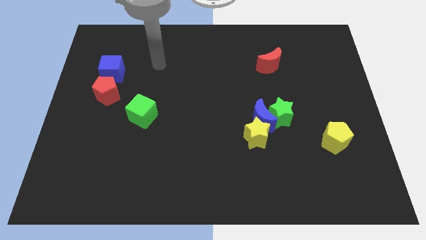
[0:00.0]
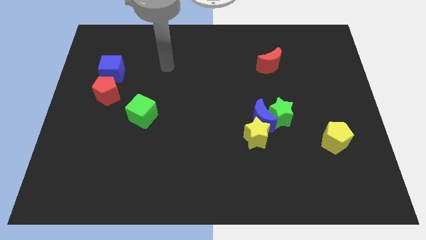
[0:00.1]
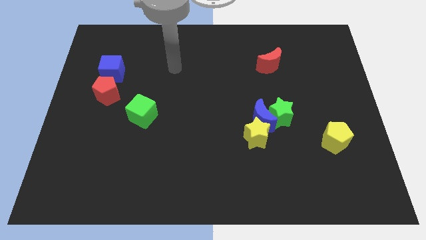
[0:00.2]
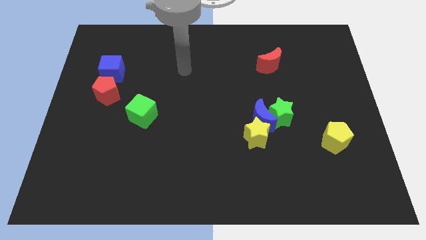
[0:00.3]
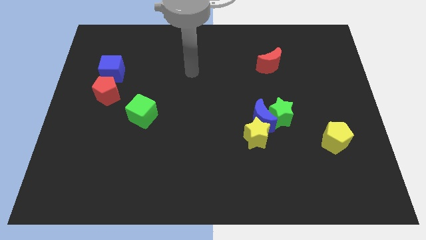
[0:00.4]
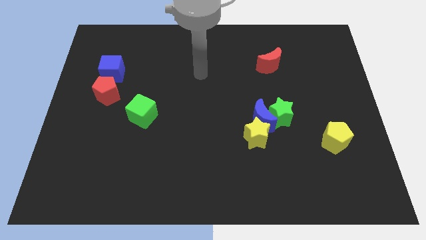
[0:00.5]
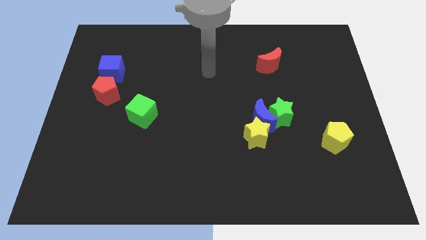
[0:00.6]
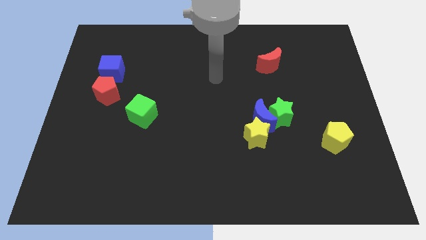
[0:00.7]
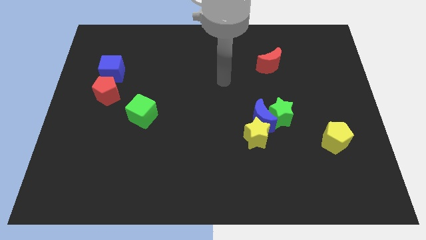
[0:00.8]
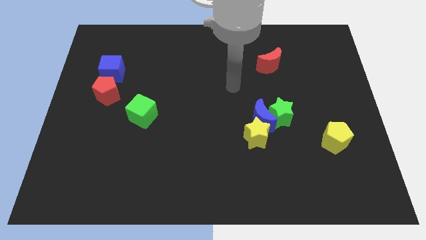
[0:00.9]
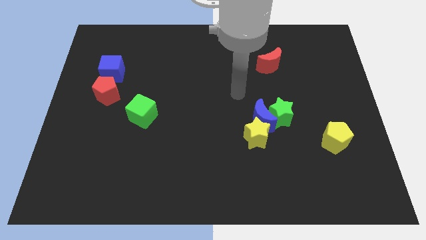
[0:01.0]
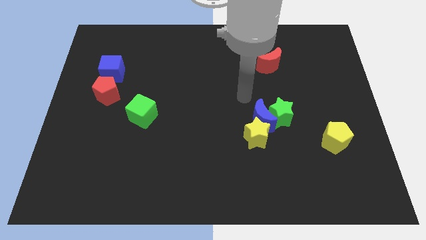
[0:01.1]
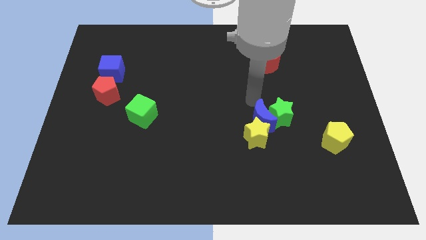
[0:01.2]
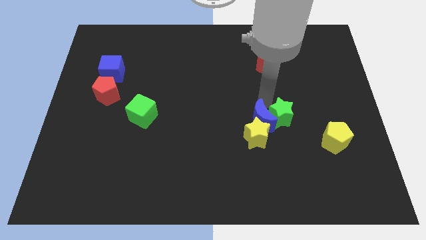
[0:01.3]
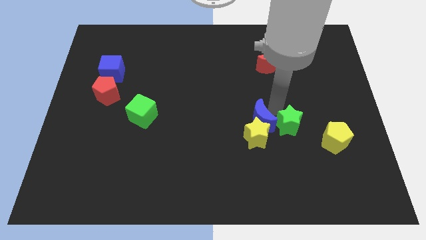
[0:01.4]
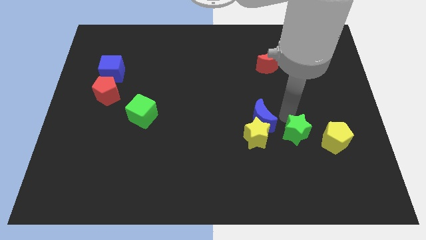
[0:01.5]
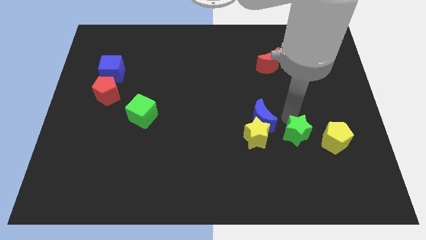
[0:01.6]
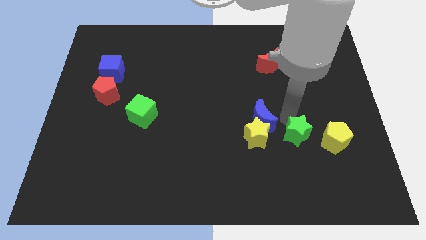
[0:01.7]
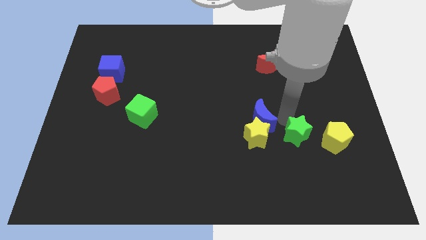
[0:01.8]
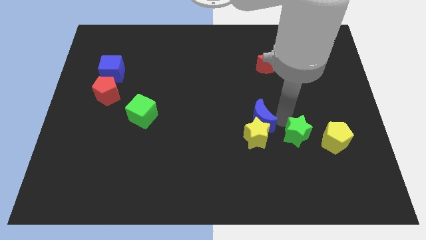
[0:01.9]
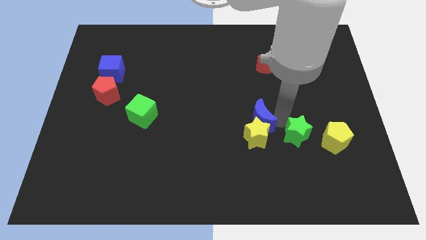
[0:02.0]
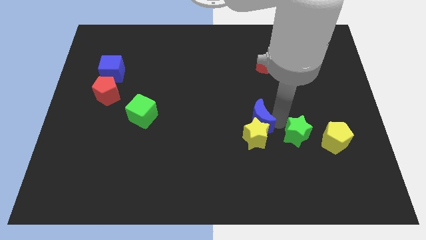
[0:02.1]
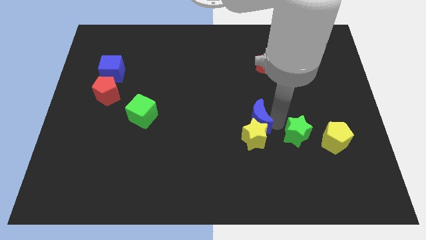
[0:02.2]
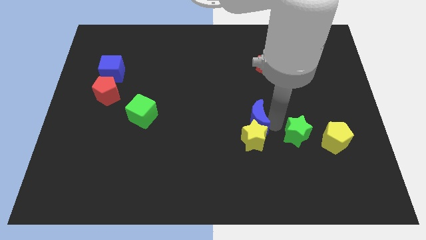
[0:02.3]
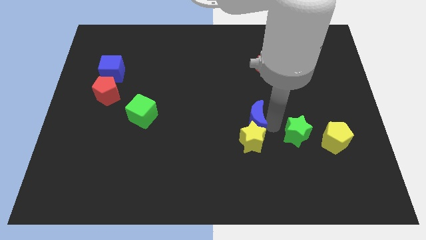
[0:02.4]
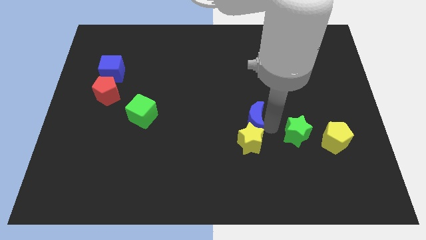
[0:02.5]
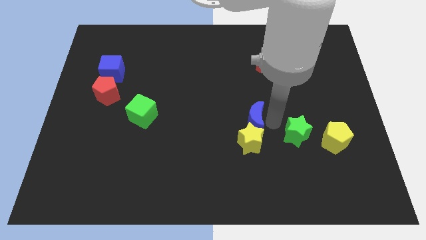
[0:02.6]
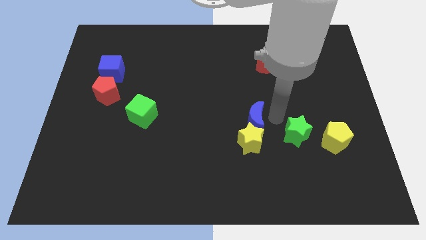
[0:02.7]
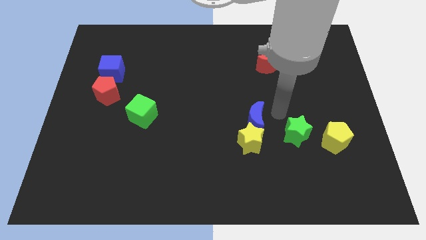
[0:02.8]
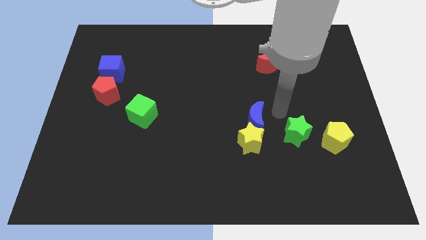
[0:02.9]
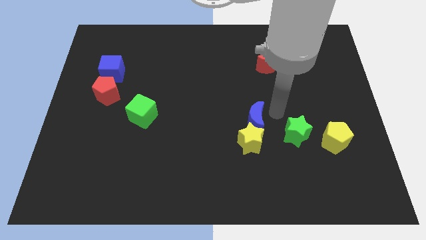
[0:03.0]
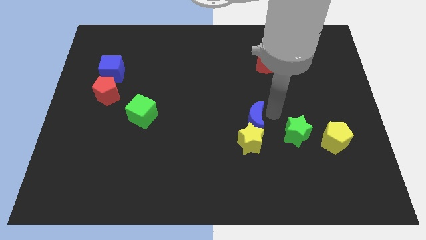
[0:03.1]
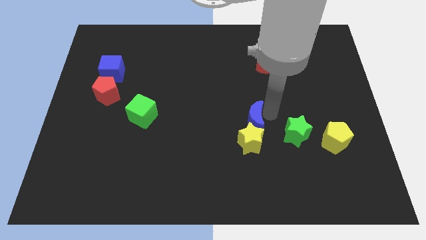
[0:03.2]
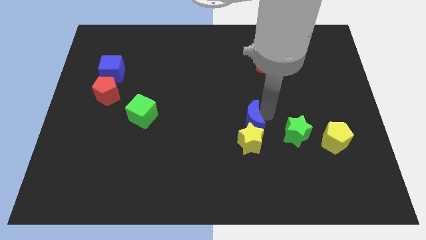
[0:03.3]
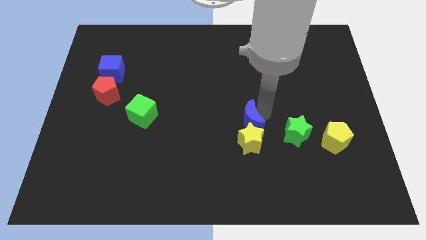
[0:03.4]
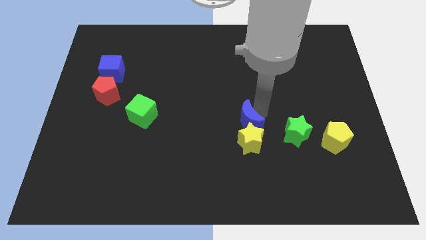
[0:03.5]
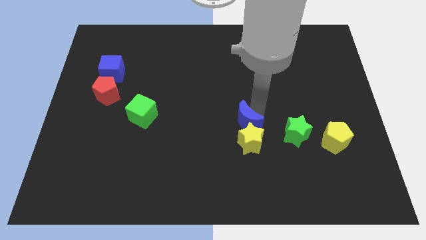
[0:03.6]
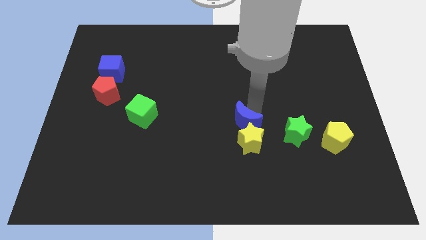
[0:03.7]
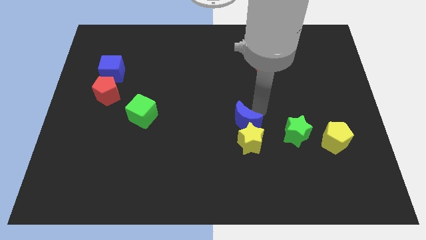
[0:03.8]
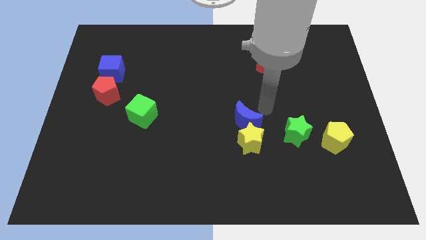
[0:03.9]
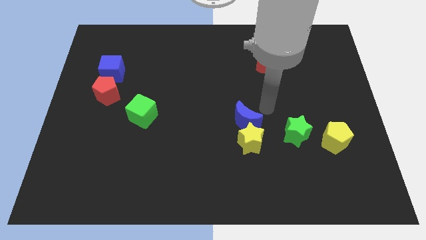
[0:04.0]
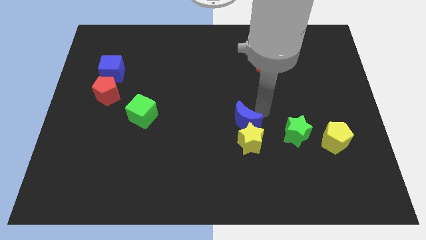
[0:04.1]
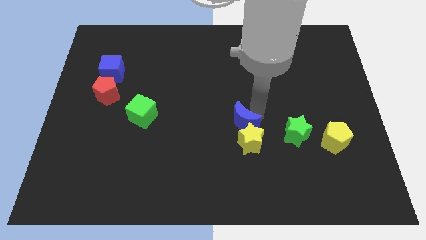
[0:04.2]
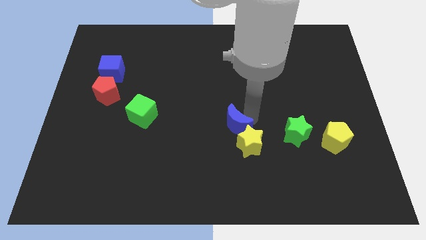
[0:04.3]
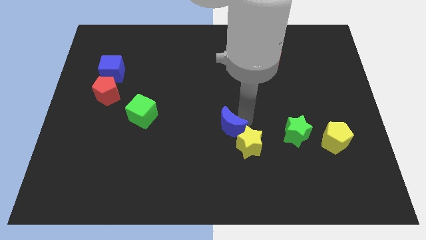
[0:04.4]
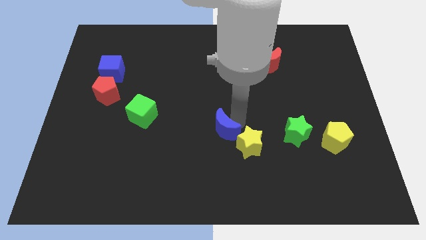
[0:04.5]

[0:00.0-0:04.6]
push the blue moon somewhat down and then to the left

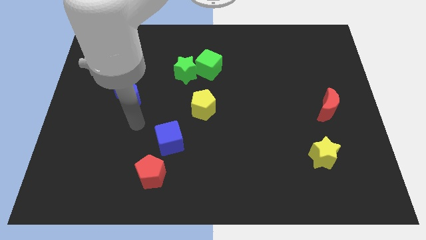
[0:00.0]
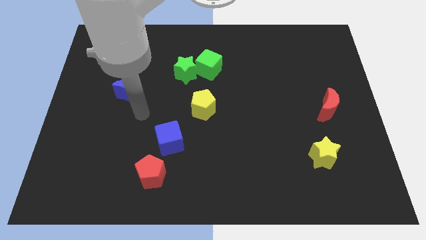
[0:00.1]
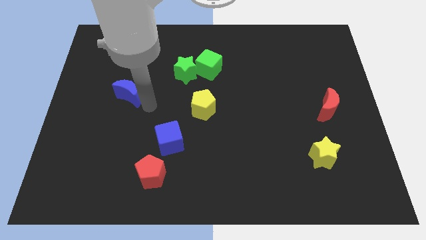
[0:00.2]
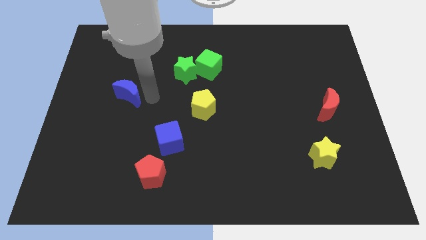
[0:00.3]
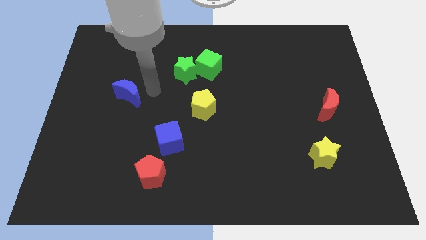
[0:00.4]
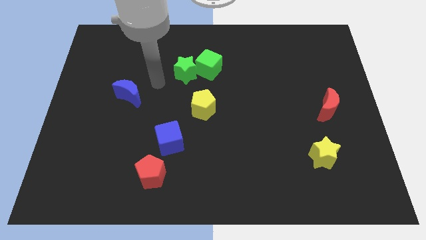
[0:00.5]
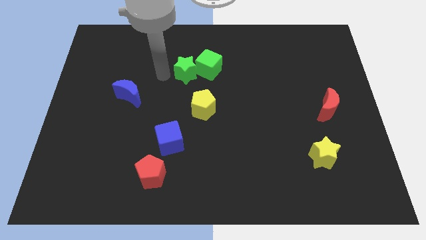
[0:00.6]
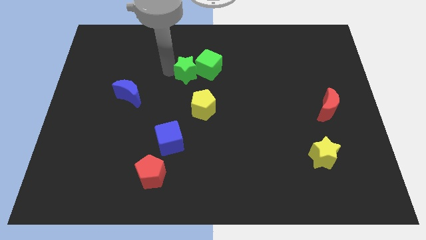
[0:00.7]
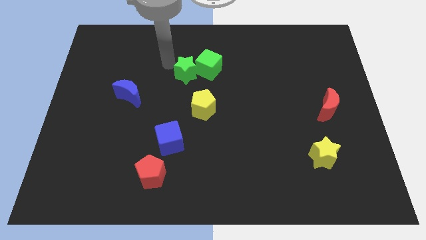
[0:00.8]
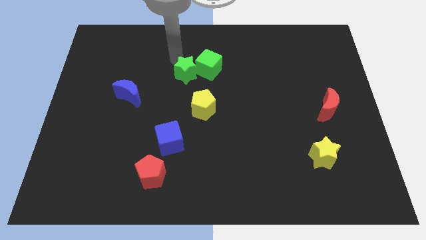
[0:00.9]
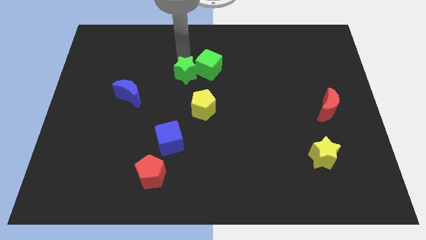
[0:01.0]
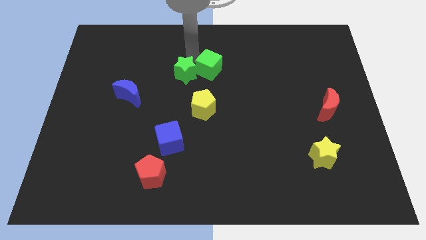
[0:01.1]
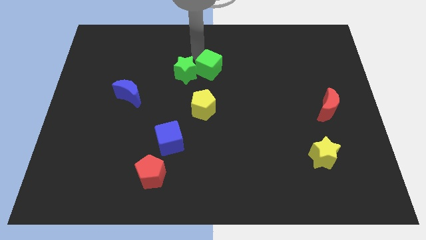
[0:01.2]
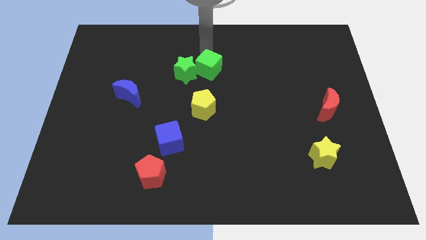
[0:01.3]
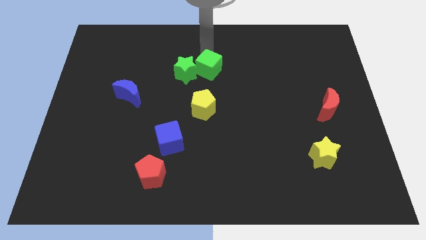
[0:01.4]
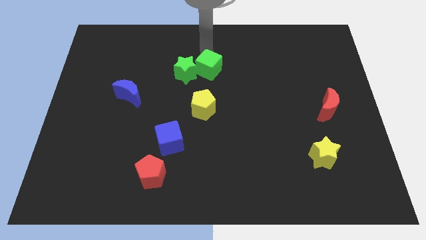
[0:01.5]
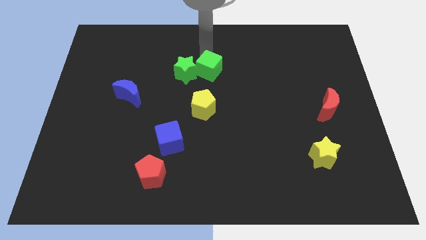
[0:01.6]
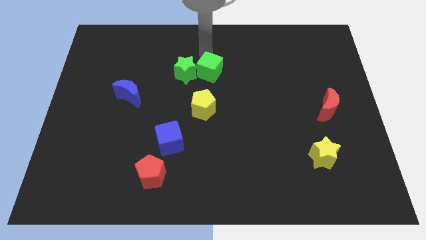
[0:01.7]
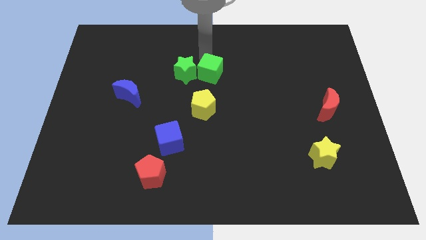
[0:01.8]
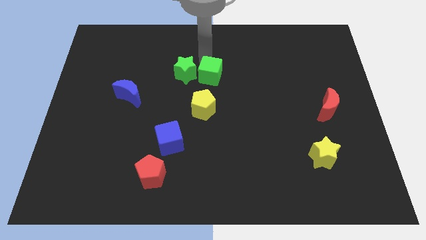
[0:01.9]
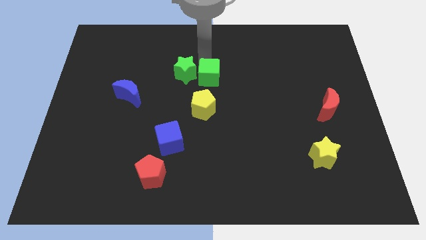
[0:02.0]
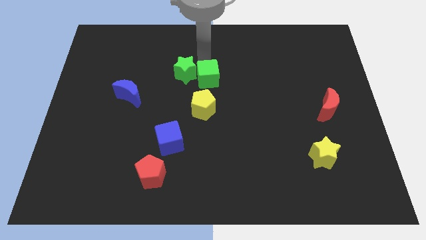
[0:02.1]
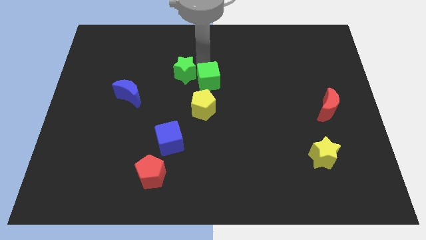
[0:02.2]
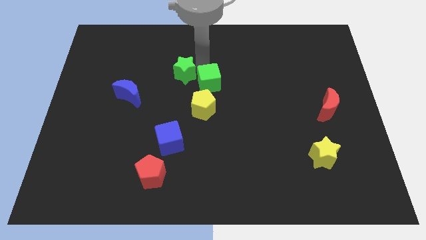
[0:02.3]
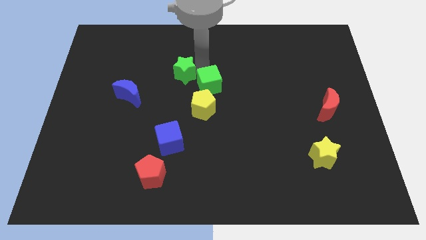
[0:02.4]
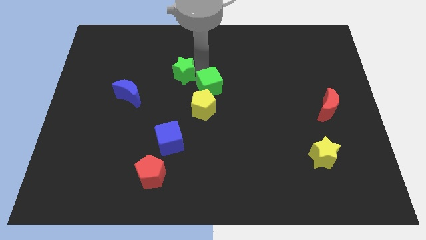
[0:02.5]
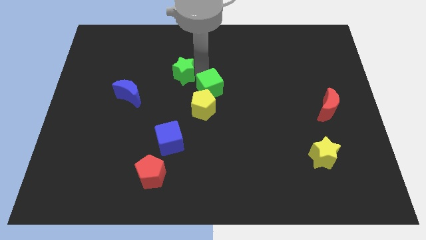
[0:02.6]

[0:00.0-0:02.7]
push the green cube downwards slightly

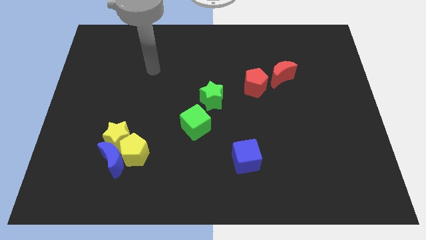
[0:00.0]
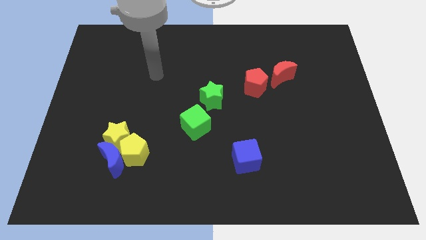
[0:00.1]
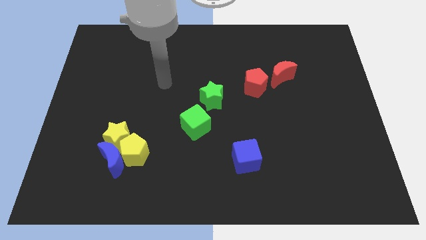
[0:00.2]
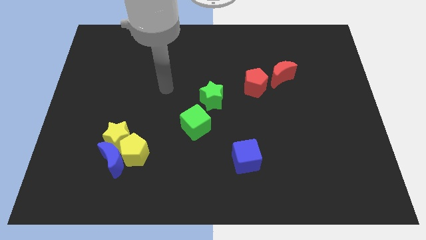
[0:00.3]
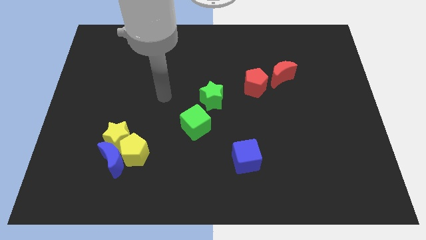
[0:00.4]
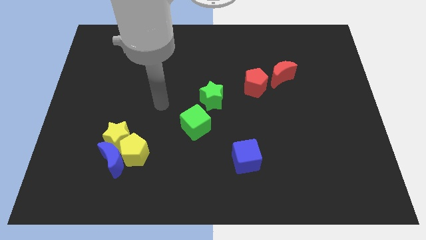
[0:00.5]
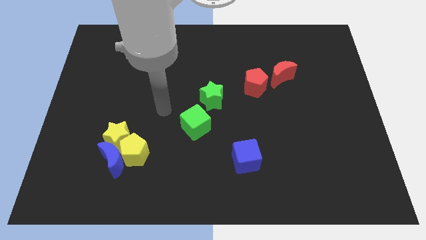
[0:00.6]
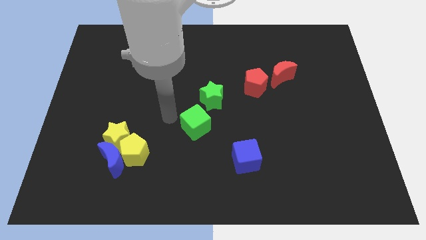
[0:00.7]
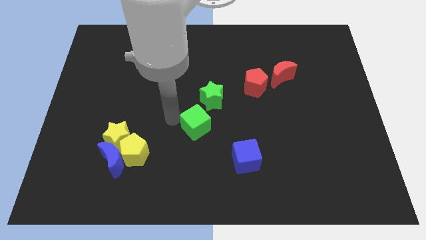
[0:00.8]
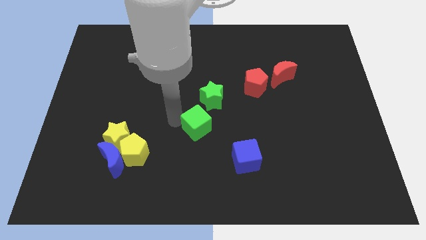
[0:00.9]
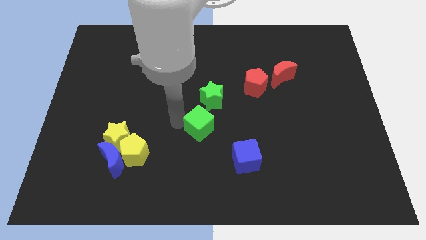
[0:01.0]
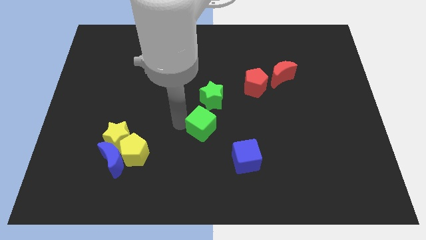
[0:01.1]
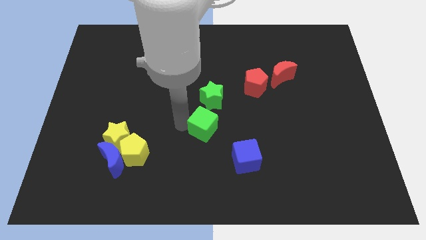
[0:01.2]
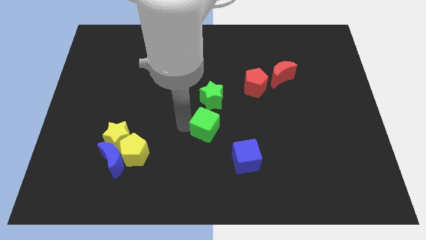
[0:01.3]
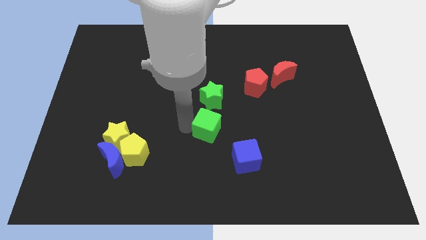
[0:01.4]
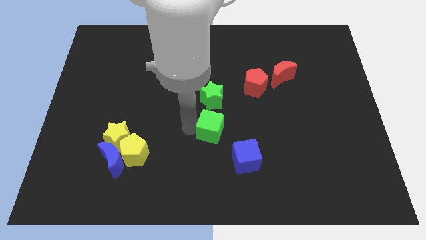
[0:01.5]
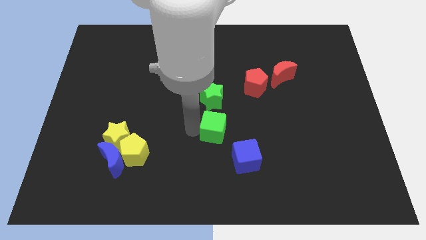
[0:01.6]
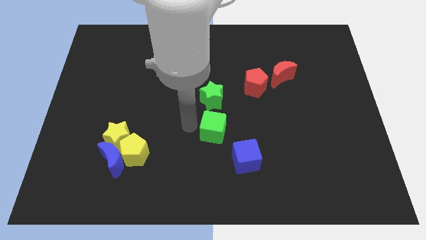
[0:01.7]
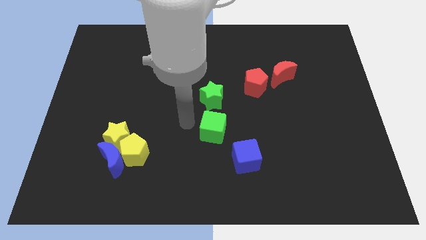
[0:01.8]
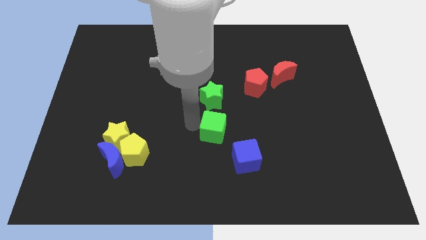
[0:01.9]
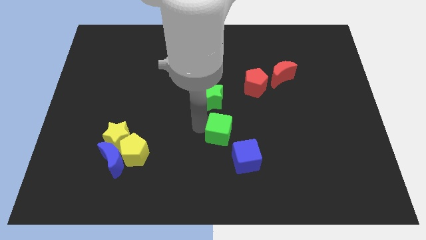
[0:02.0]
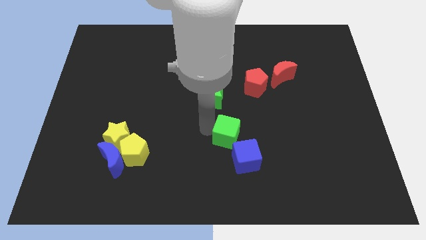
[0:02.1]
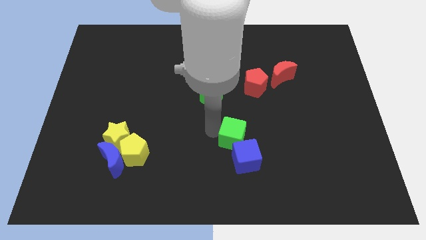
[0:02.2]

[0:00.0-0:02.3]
push the green cube down and right a little bit
